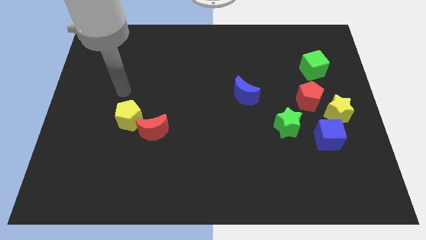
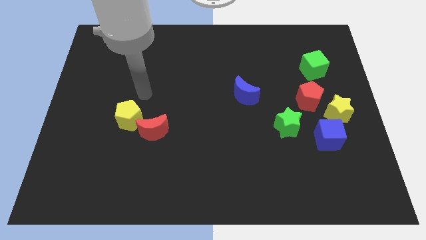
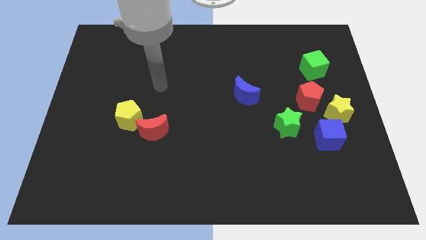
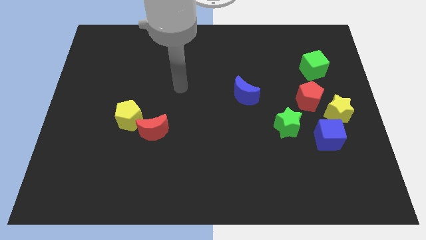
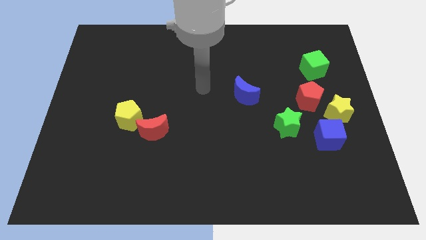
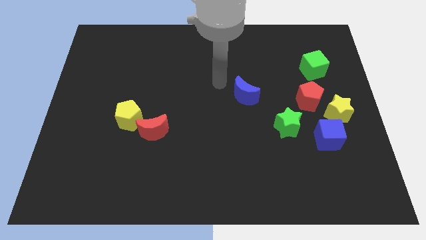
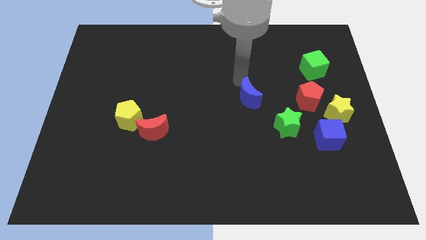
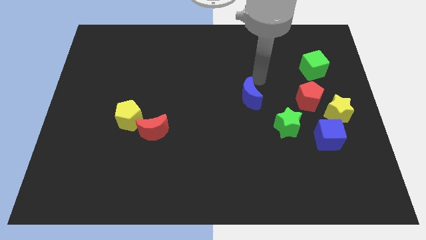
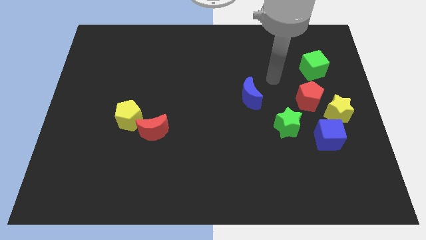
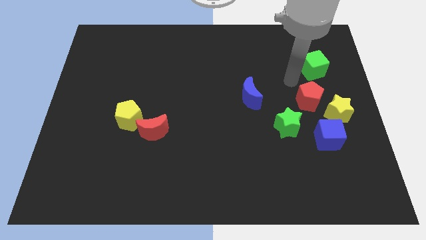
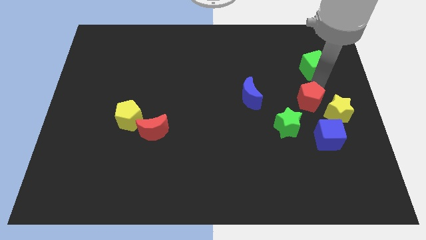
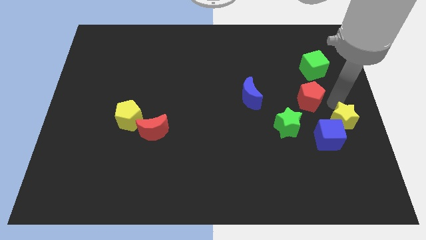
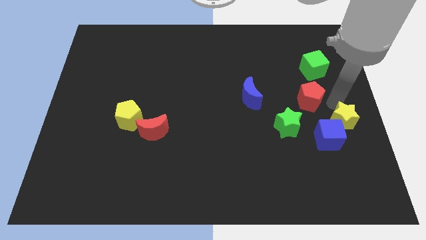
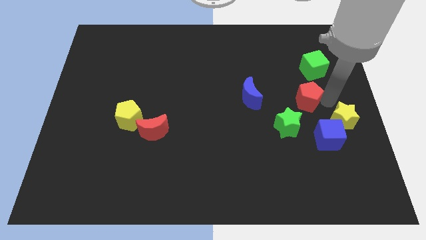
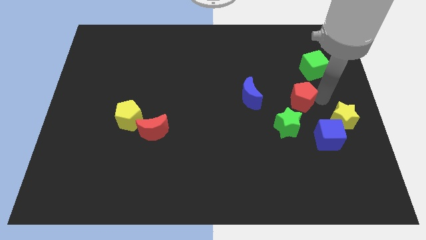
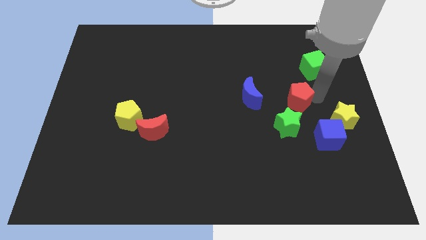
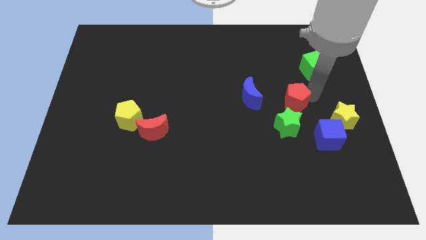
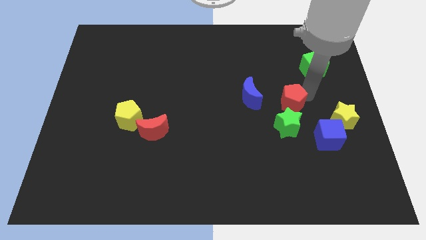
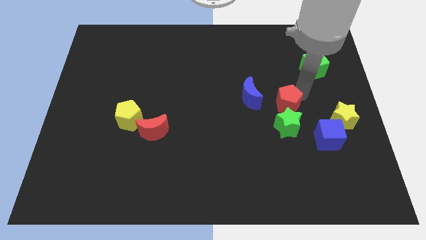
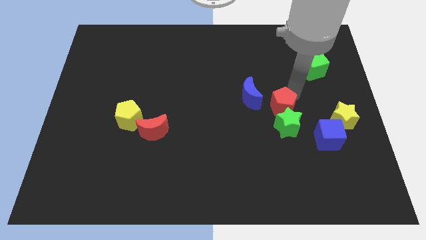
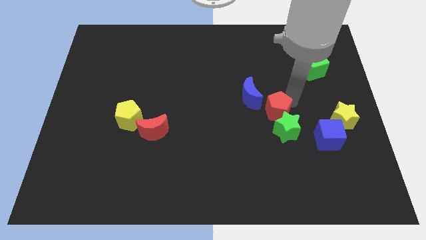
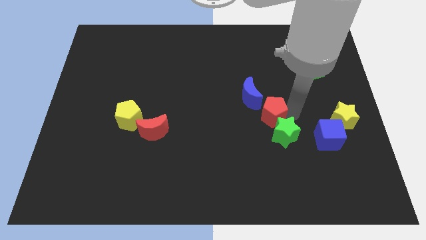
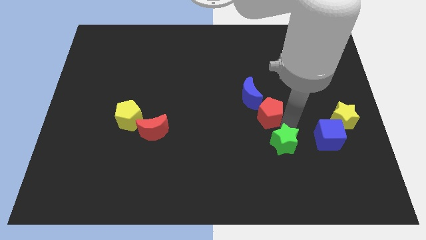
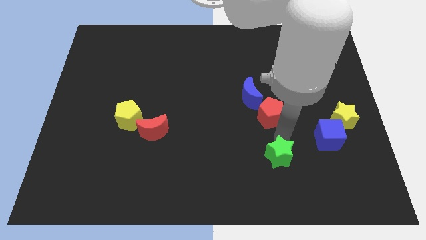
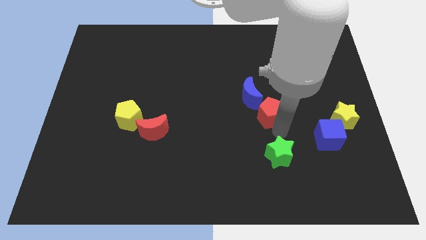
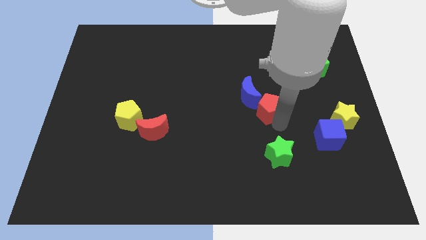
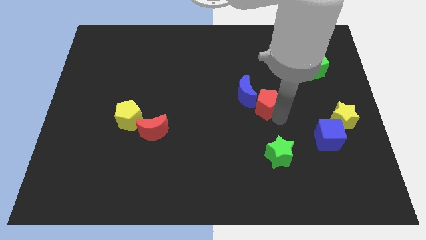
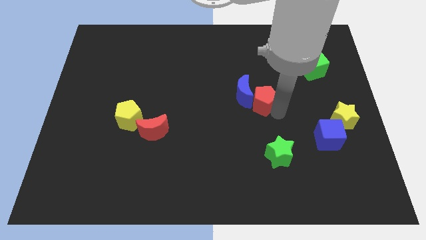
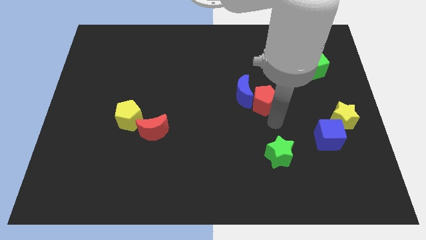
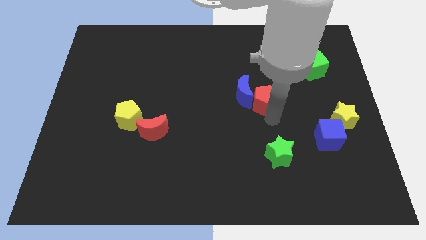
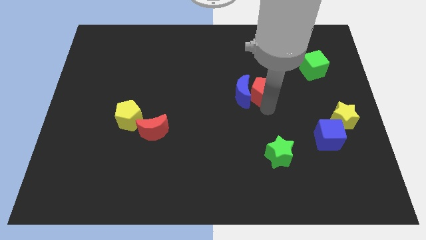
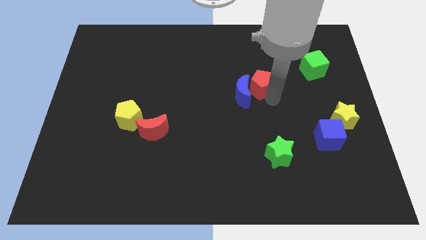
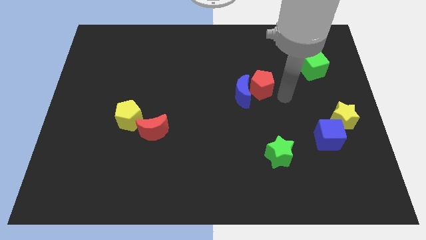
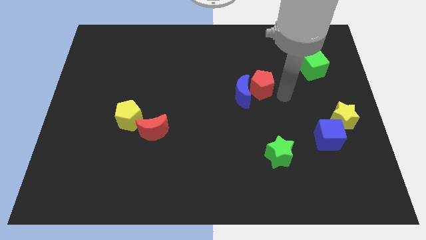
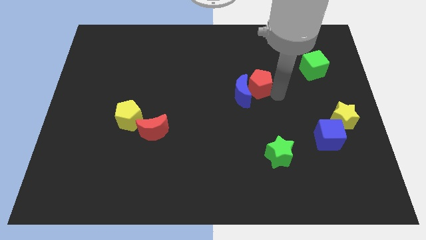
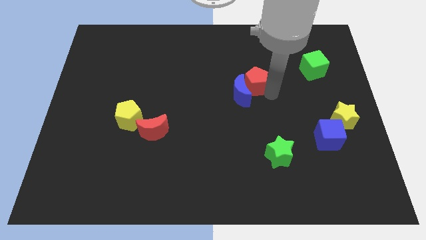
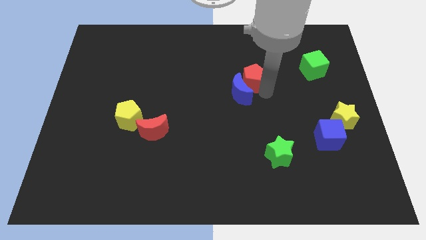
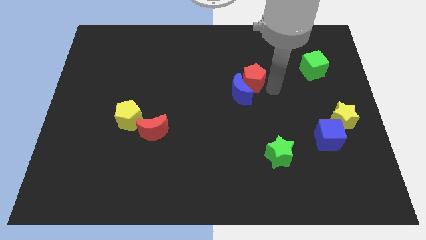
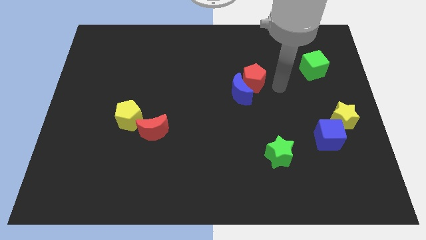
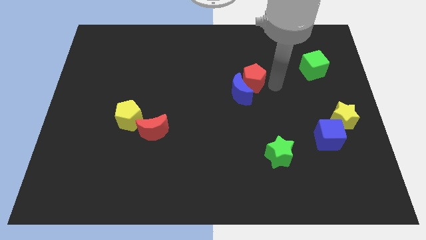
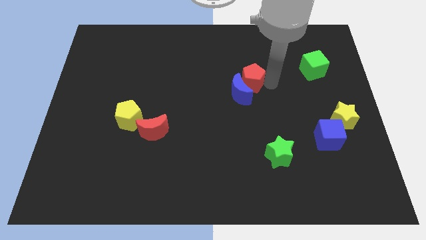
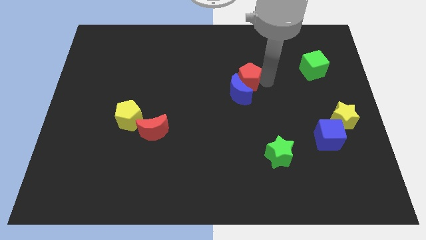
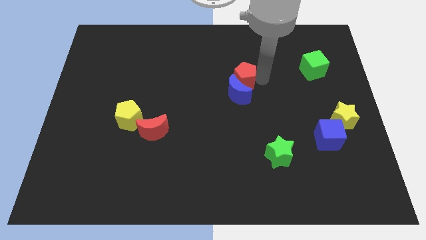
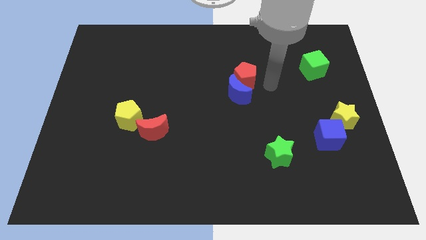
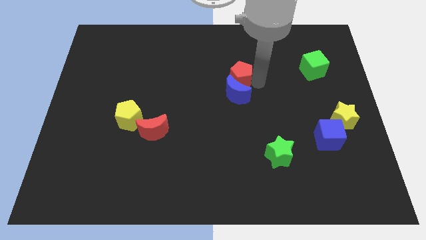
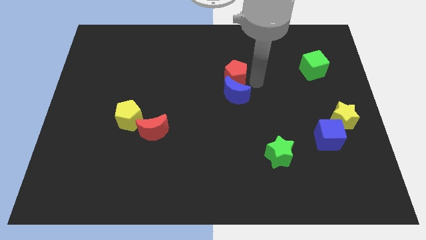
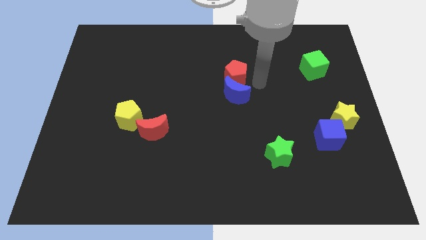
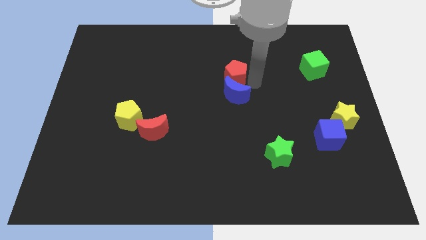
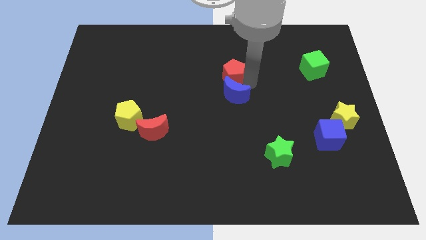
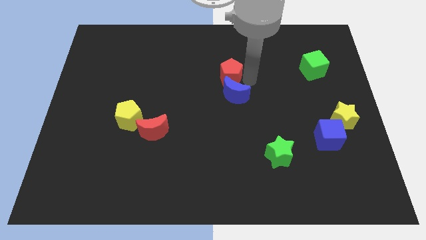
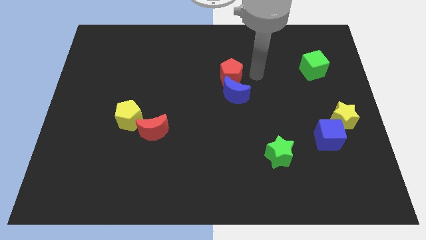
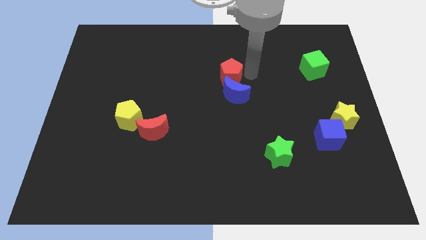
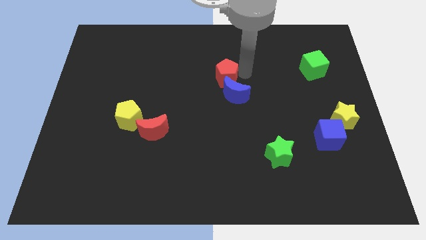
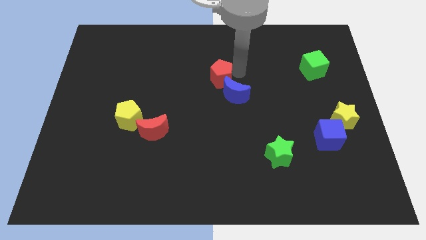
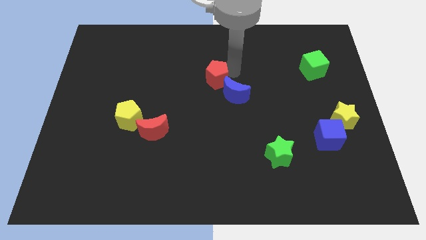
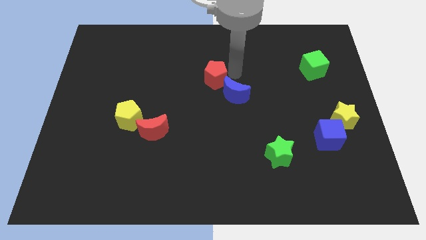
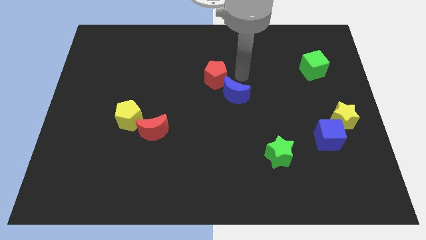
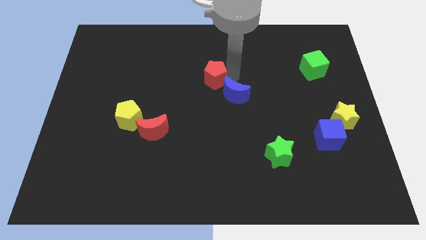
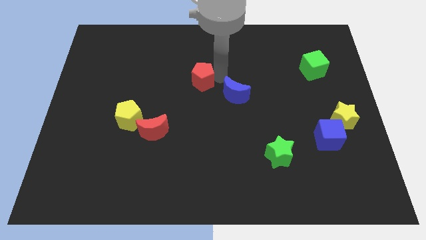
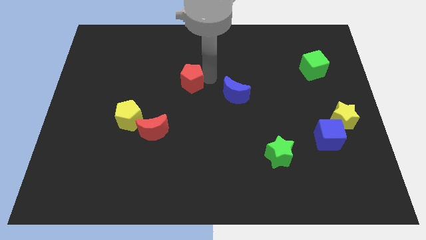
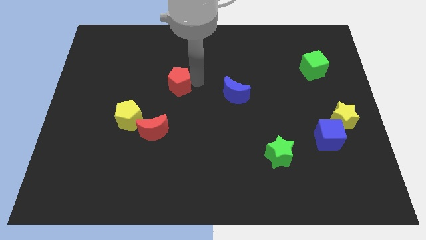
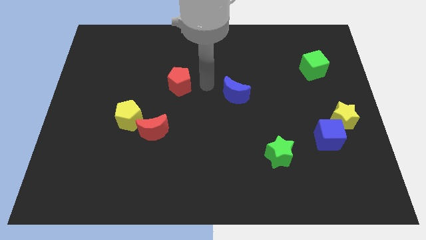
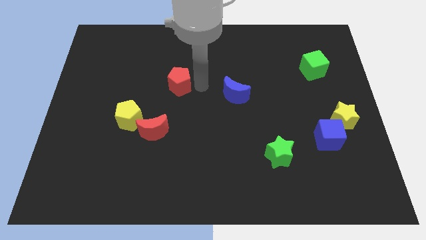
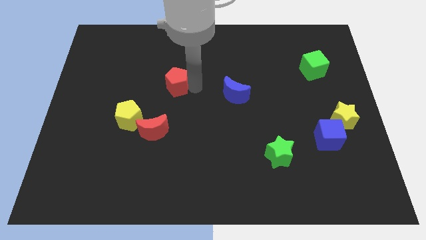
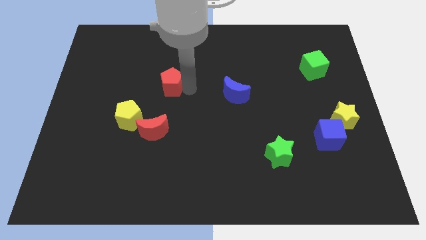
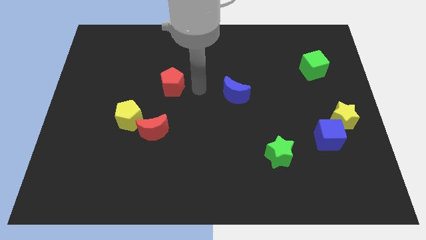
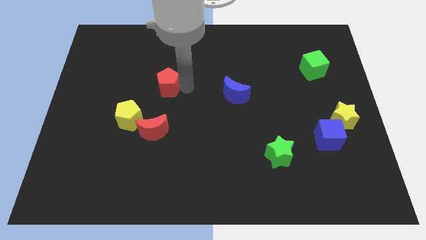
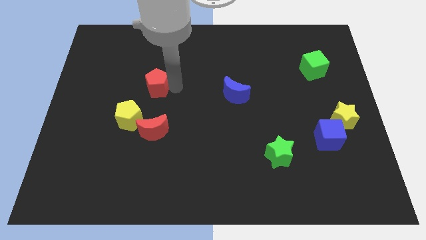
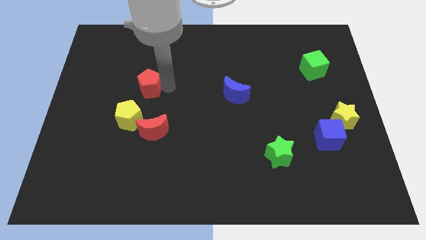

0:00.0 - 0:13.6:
put the red pentagon above the yellow pentagon

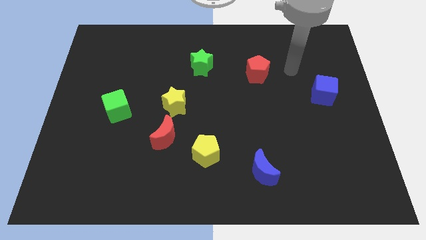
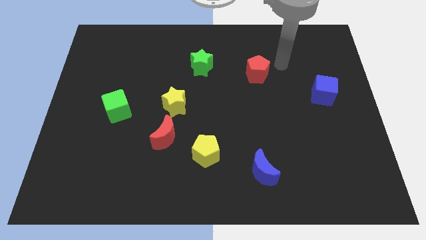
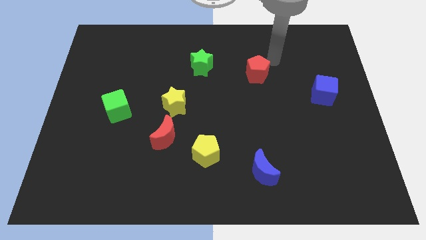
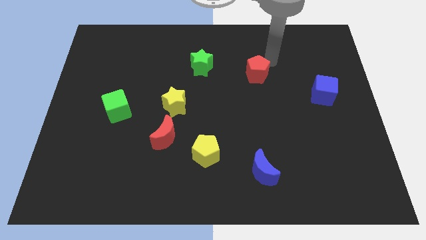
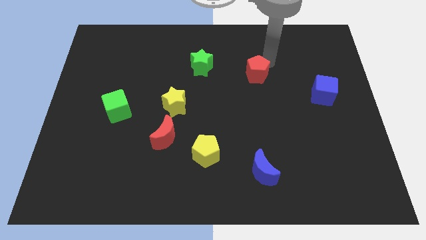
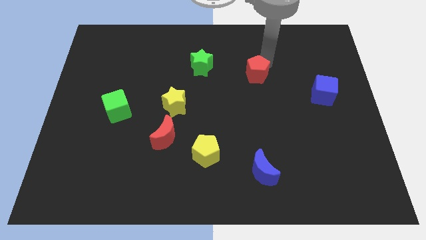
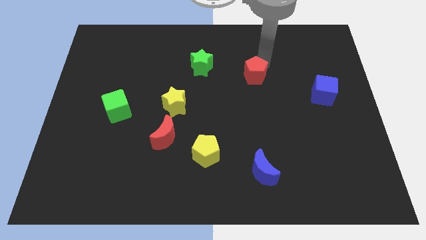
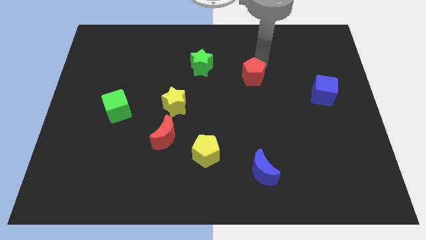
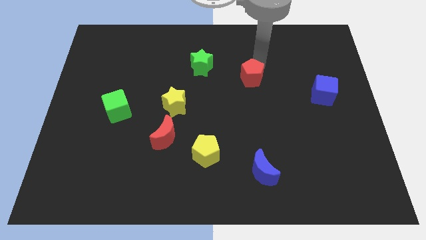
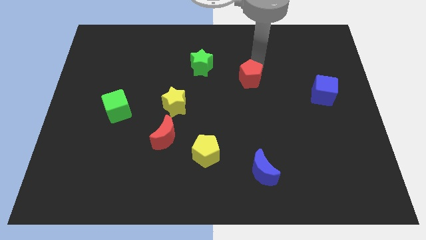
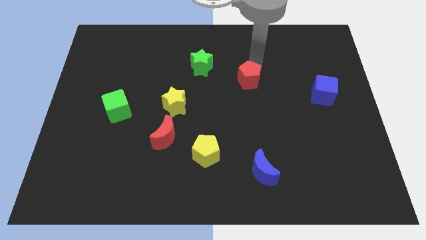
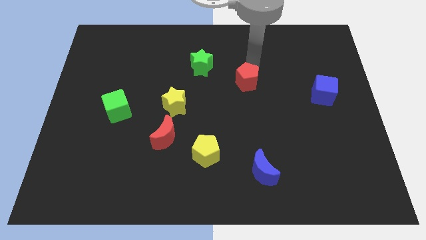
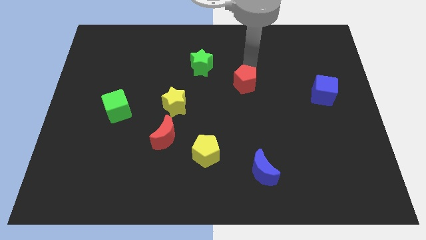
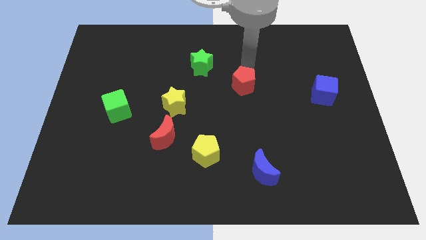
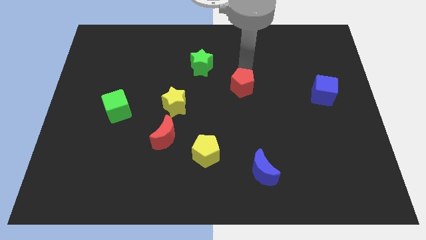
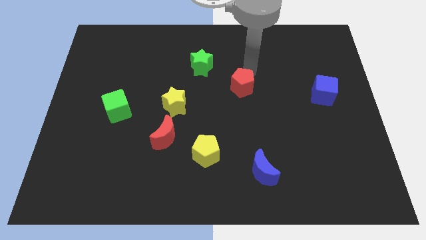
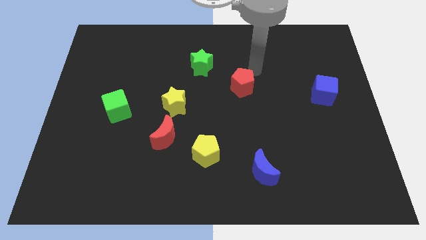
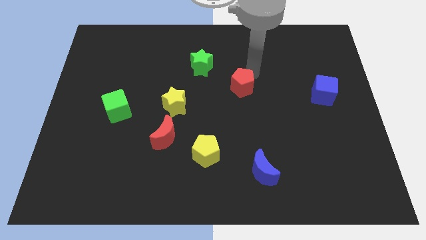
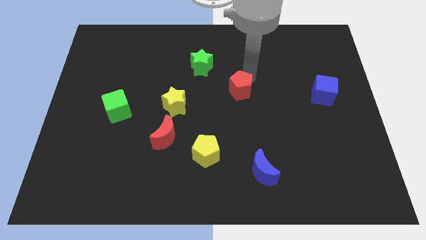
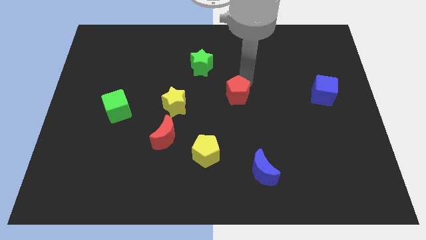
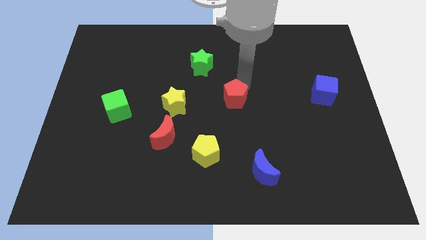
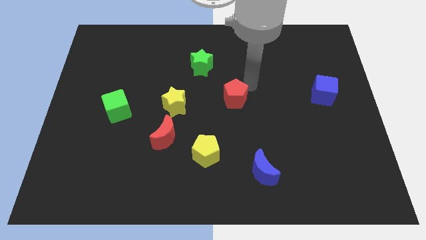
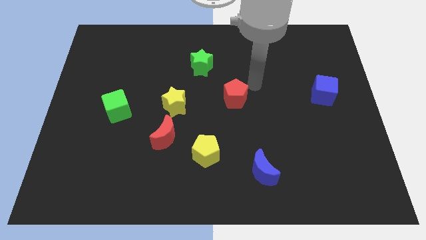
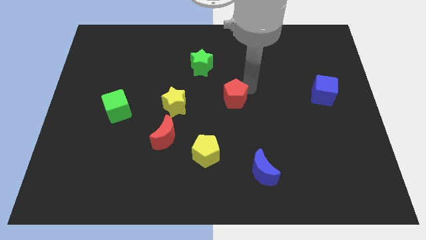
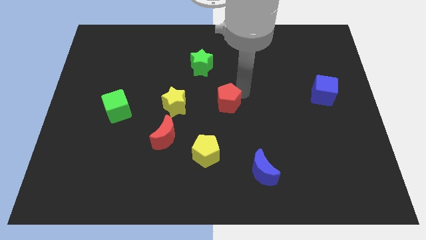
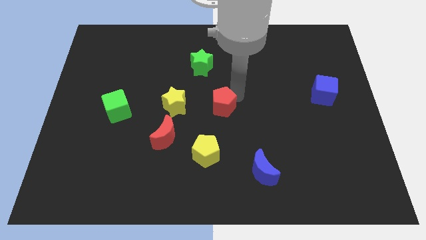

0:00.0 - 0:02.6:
slide the red pentagon above the yellow pentagon
